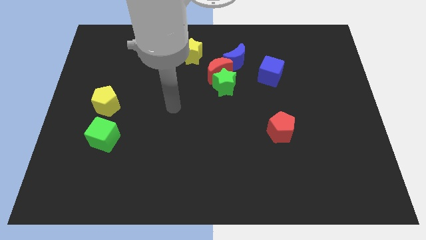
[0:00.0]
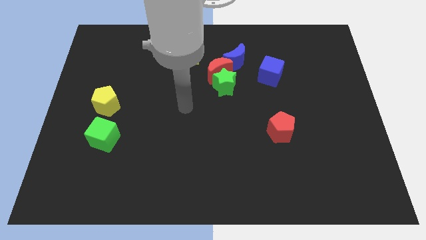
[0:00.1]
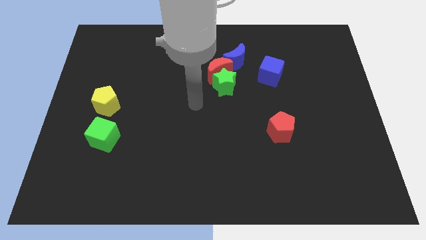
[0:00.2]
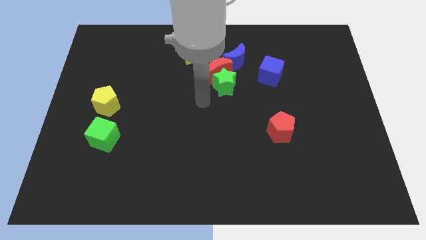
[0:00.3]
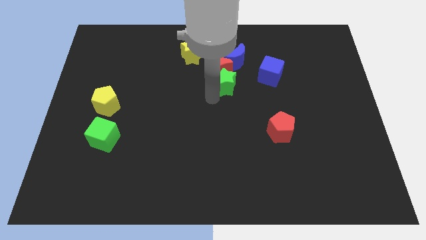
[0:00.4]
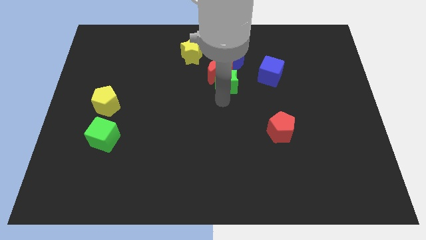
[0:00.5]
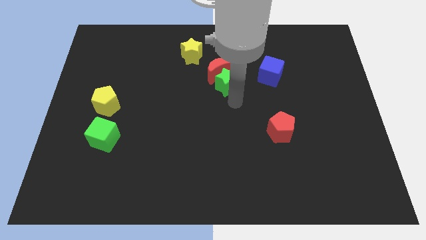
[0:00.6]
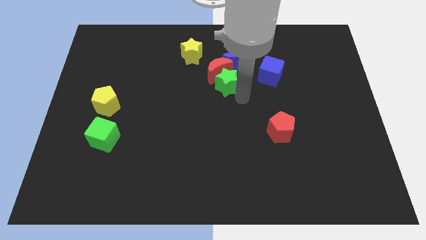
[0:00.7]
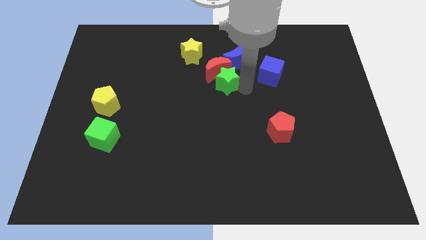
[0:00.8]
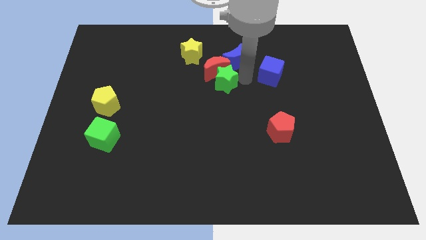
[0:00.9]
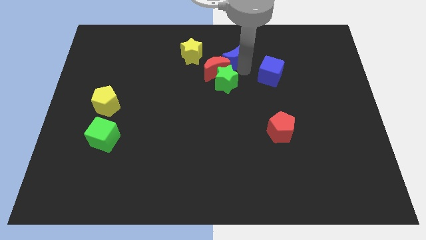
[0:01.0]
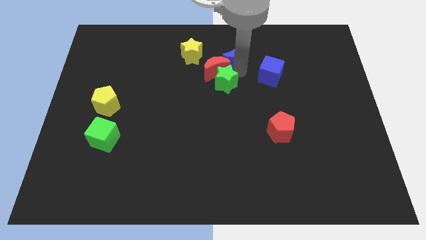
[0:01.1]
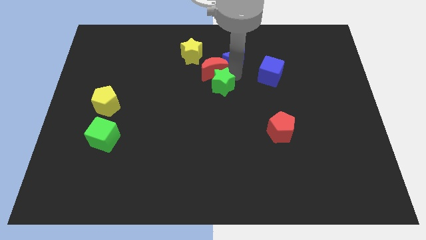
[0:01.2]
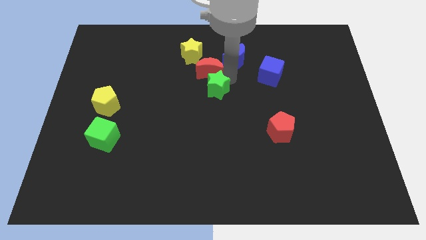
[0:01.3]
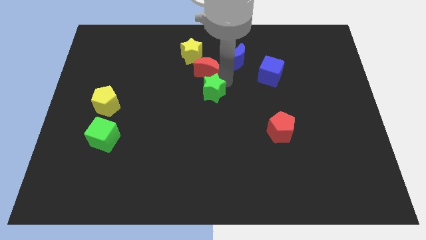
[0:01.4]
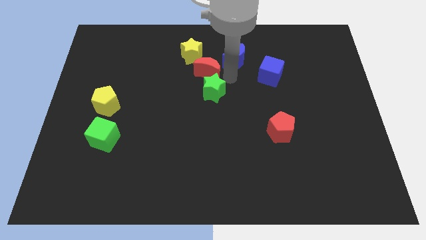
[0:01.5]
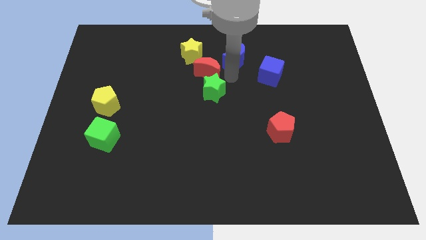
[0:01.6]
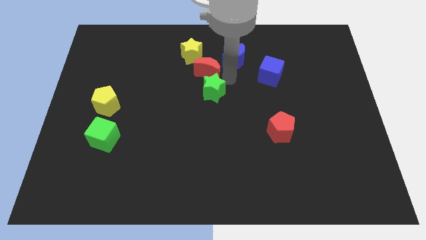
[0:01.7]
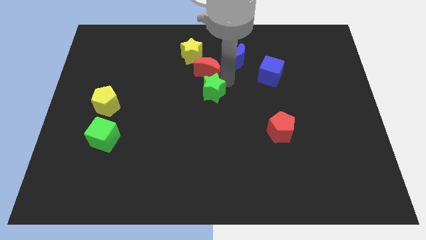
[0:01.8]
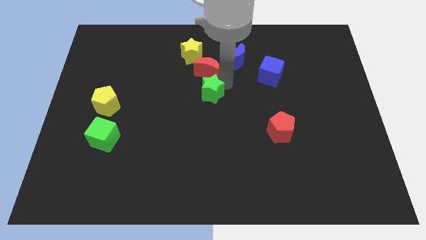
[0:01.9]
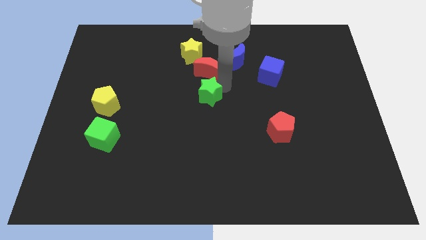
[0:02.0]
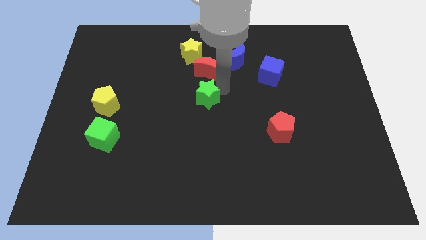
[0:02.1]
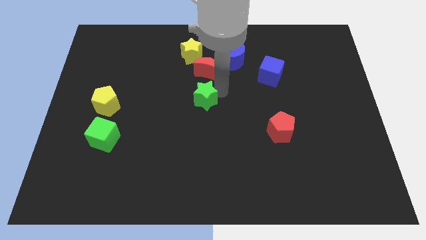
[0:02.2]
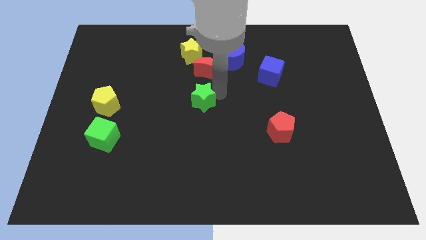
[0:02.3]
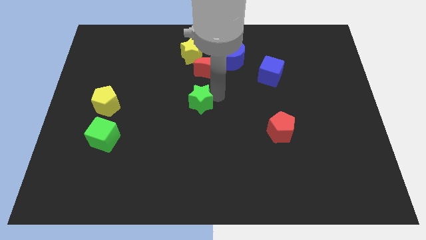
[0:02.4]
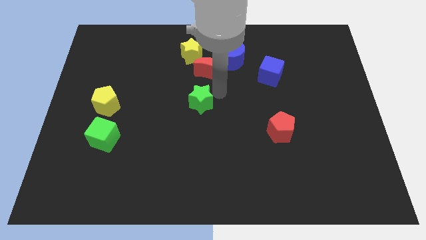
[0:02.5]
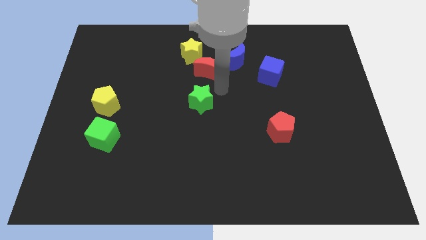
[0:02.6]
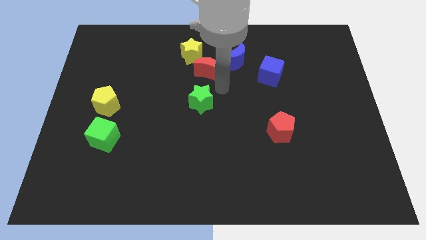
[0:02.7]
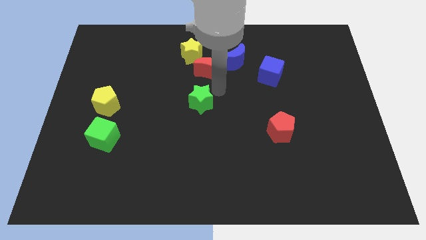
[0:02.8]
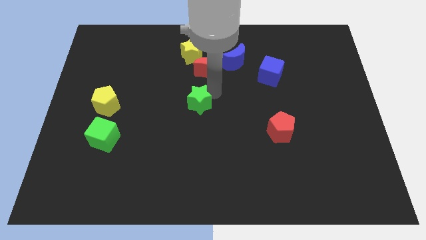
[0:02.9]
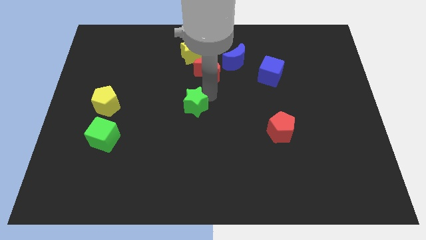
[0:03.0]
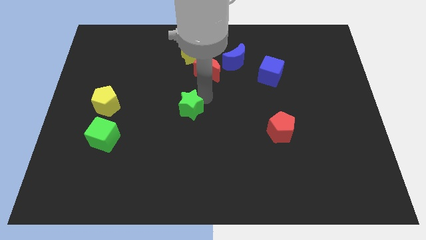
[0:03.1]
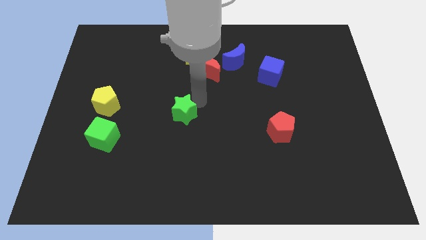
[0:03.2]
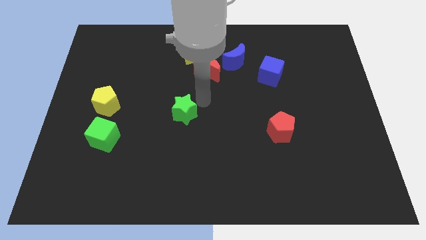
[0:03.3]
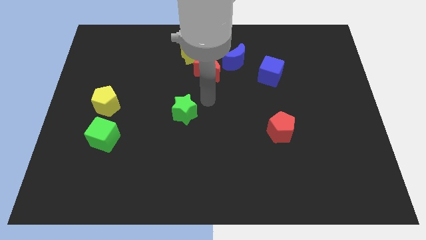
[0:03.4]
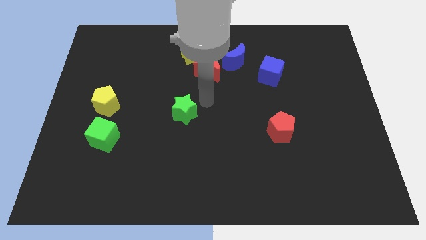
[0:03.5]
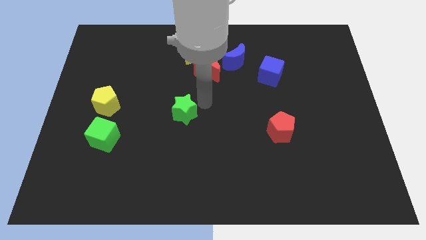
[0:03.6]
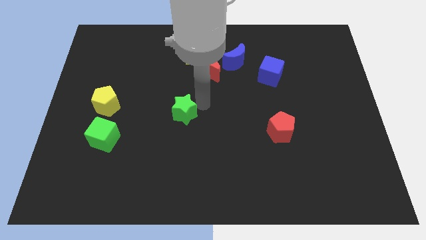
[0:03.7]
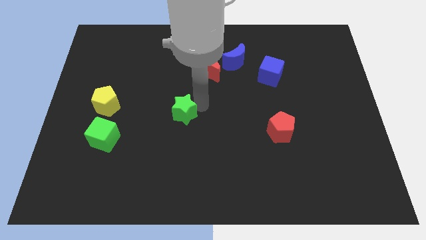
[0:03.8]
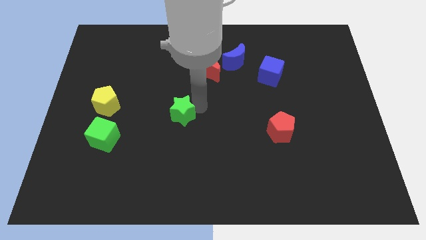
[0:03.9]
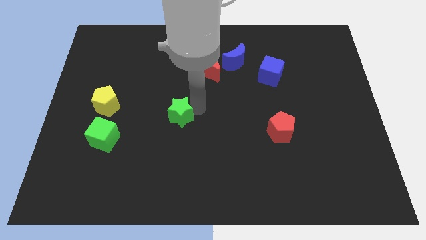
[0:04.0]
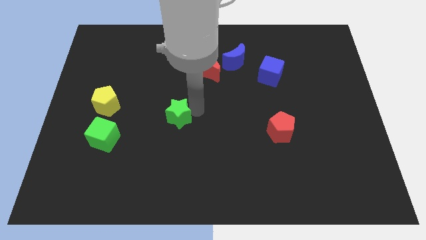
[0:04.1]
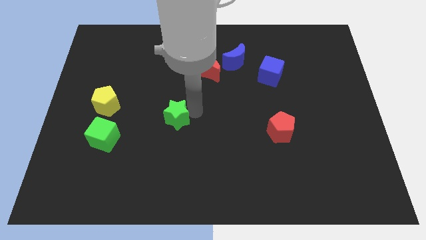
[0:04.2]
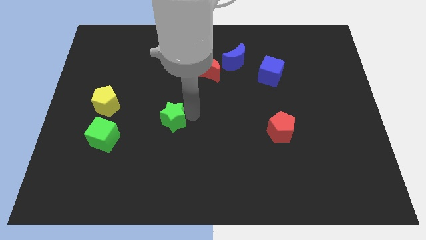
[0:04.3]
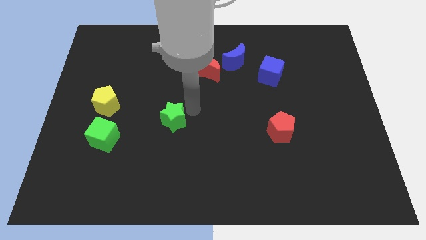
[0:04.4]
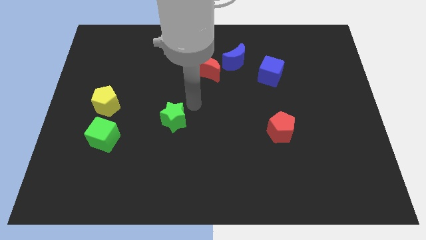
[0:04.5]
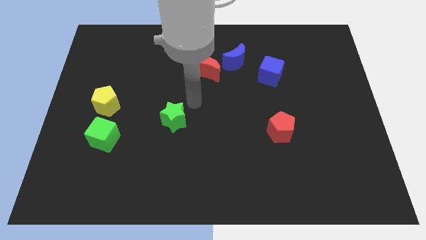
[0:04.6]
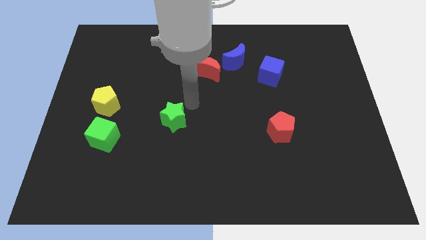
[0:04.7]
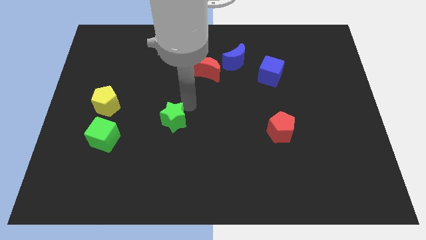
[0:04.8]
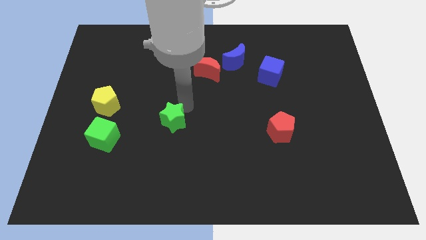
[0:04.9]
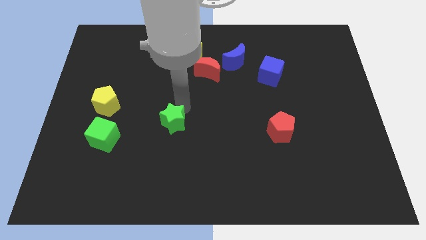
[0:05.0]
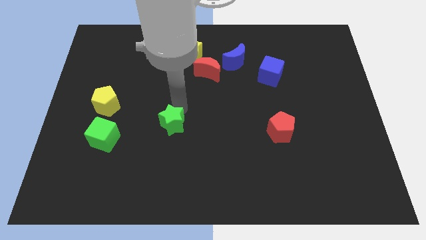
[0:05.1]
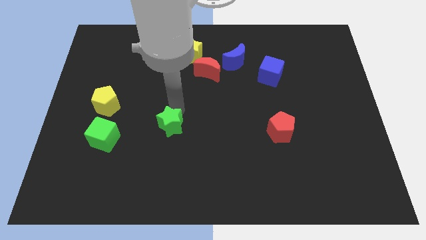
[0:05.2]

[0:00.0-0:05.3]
push the green star right of the green cube

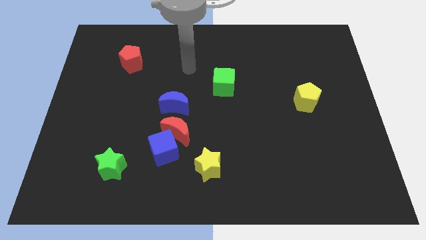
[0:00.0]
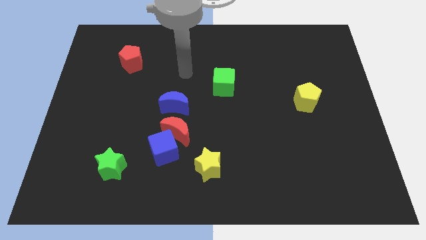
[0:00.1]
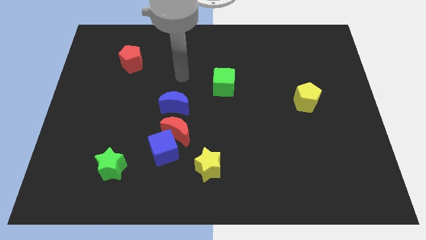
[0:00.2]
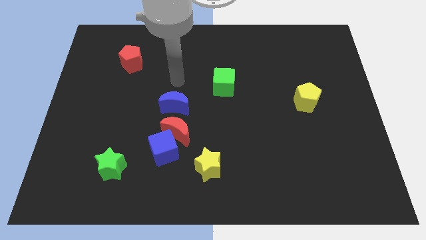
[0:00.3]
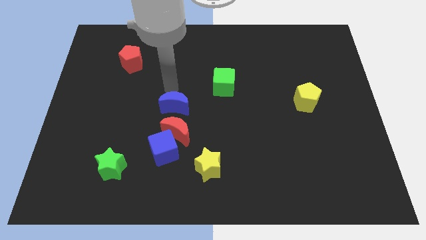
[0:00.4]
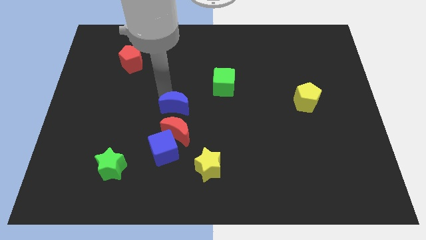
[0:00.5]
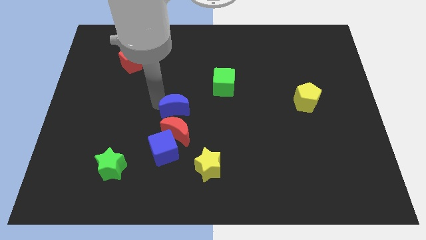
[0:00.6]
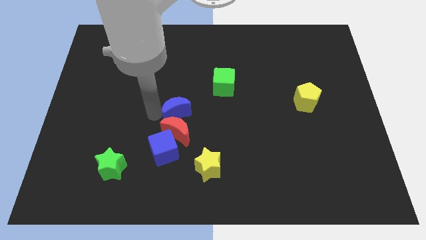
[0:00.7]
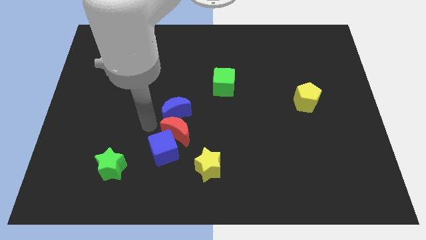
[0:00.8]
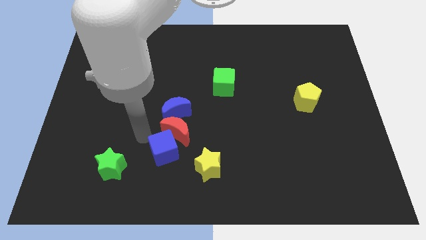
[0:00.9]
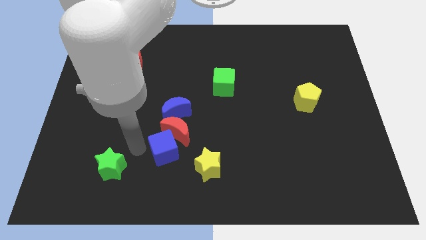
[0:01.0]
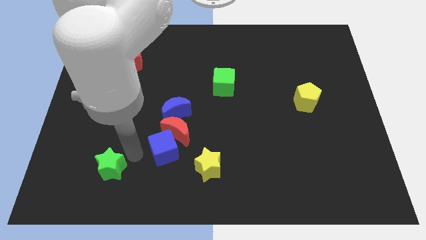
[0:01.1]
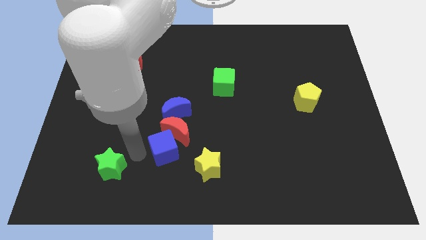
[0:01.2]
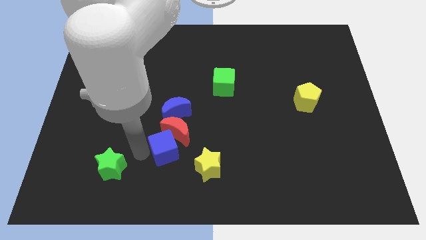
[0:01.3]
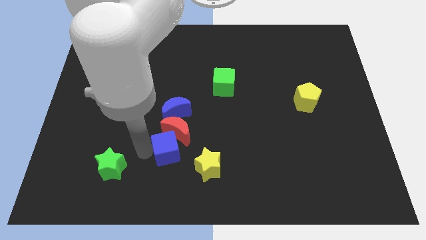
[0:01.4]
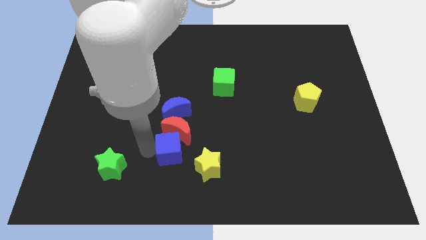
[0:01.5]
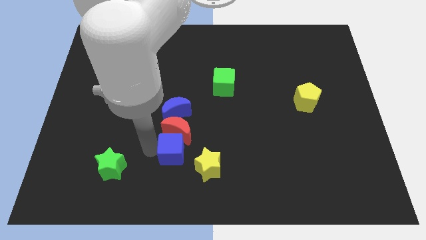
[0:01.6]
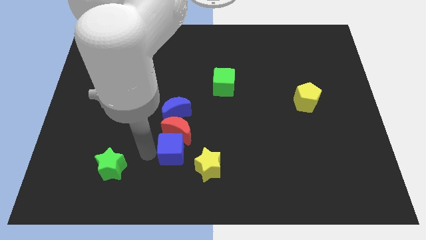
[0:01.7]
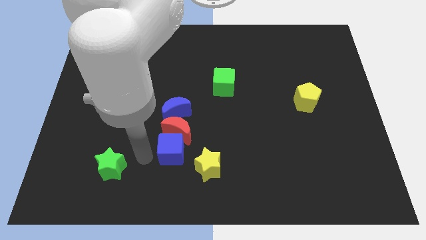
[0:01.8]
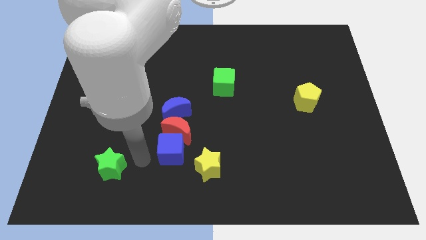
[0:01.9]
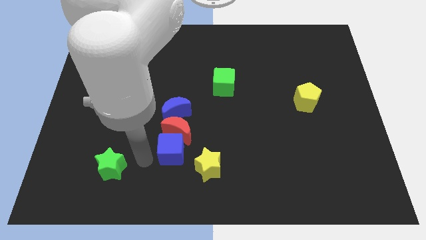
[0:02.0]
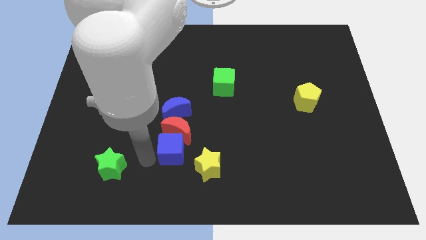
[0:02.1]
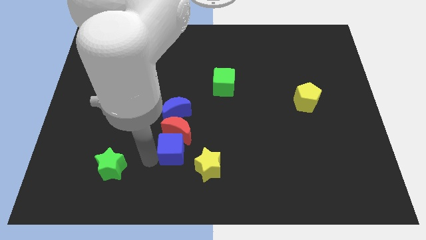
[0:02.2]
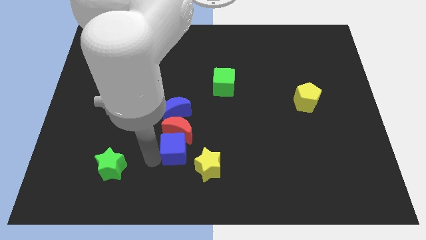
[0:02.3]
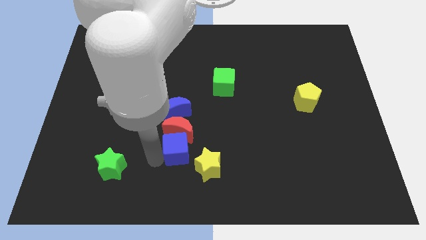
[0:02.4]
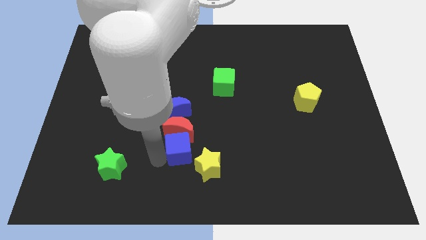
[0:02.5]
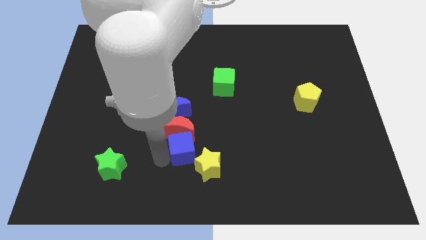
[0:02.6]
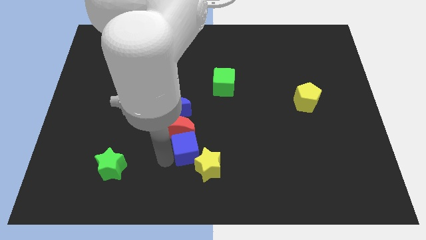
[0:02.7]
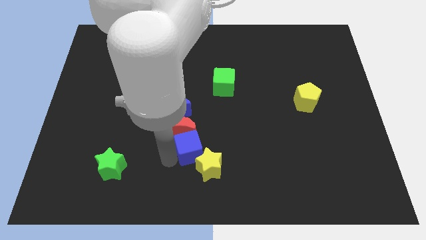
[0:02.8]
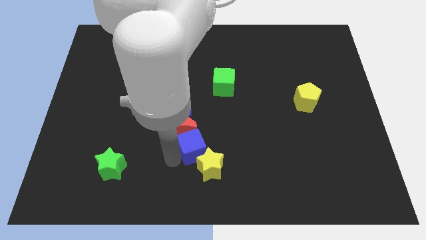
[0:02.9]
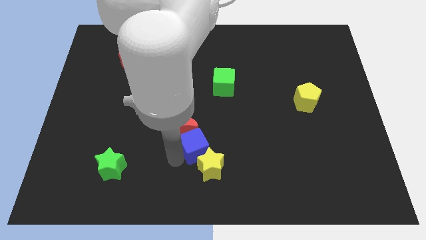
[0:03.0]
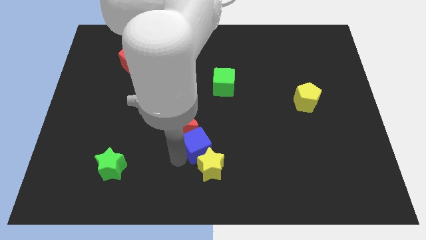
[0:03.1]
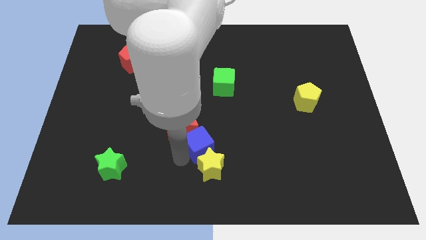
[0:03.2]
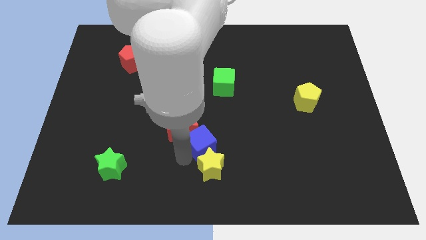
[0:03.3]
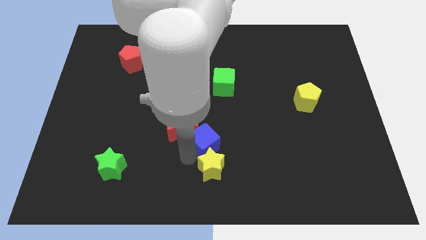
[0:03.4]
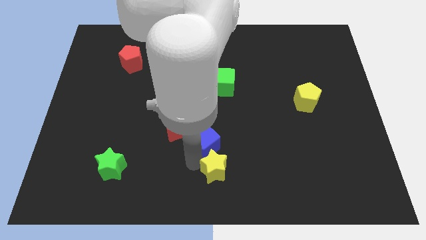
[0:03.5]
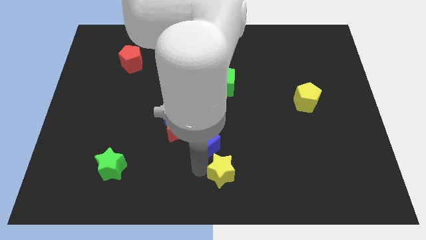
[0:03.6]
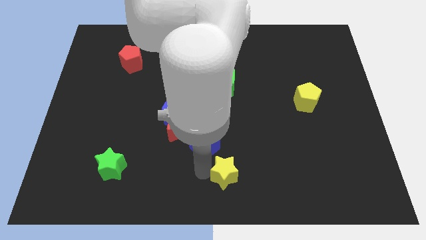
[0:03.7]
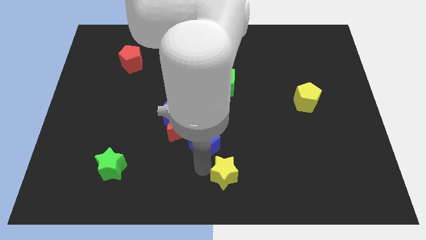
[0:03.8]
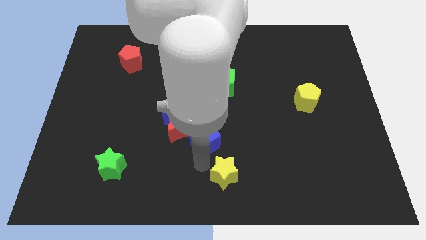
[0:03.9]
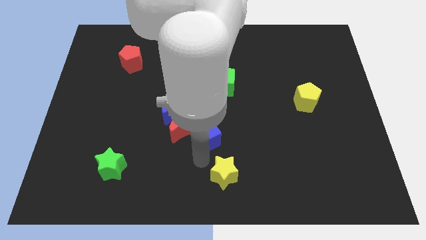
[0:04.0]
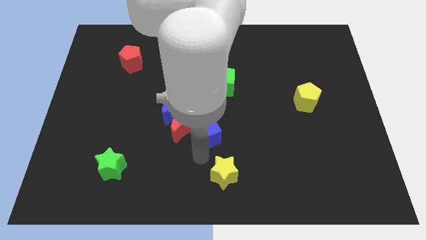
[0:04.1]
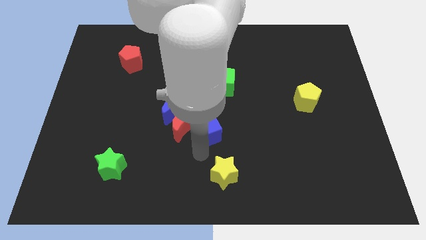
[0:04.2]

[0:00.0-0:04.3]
move the blue cube to the top right of the red moon
